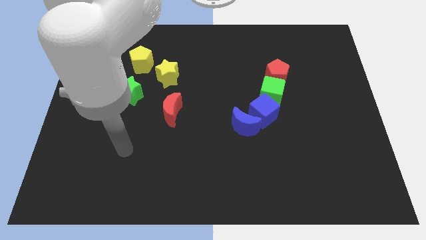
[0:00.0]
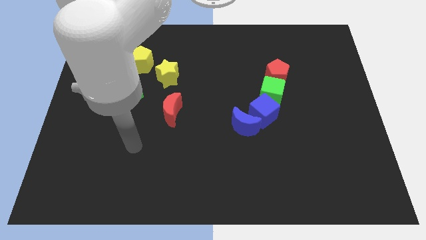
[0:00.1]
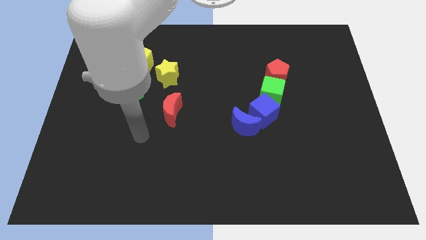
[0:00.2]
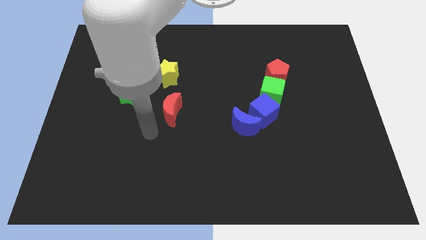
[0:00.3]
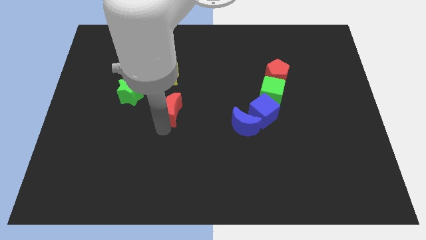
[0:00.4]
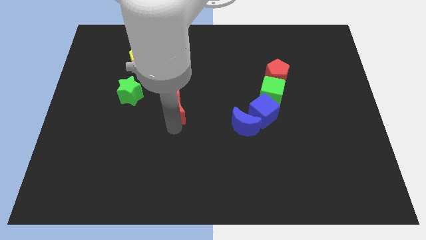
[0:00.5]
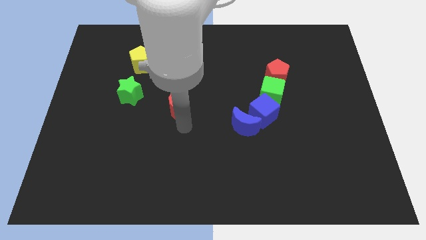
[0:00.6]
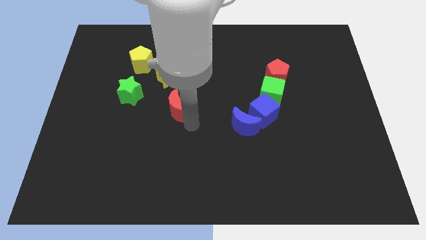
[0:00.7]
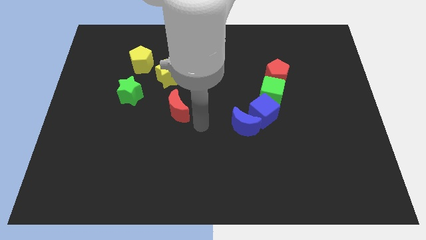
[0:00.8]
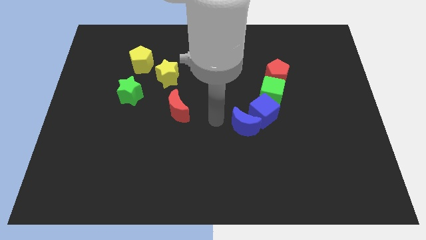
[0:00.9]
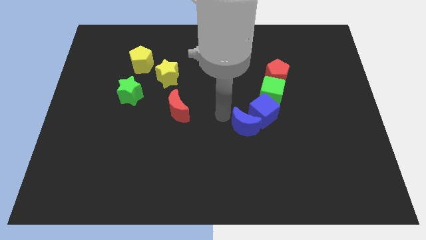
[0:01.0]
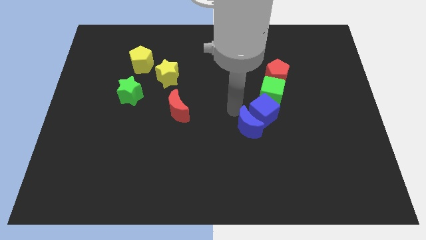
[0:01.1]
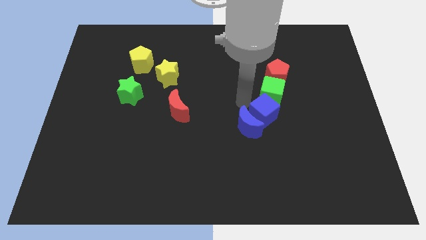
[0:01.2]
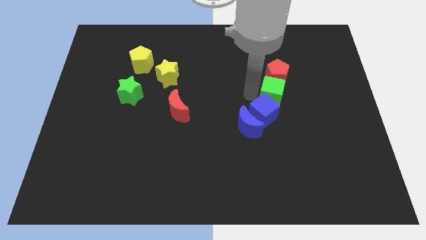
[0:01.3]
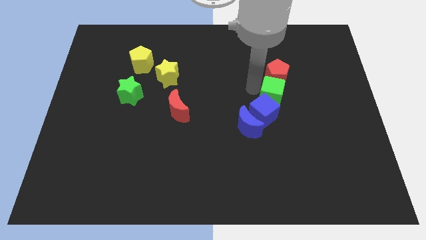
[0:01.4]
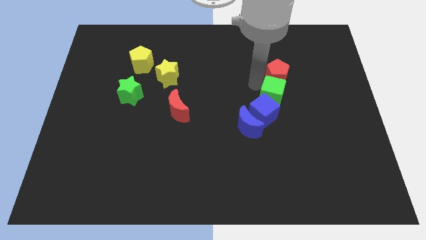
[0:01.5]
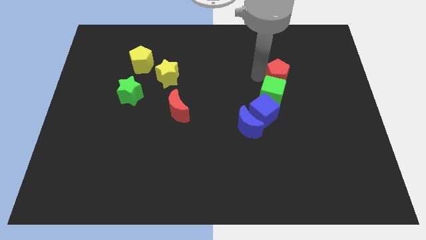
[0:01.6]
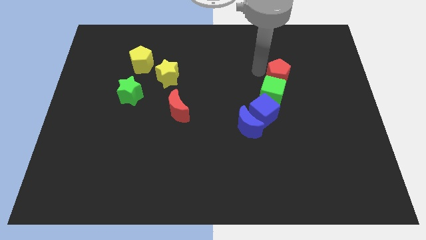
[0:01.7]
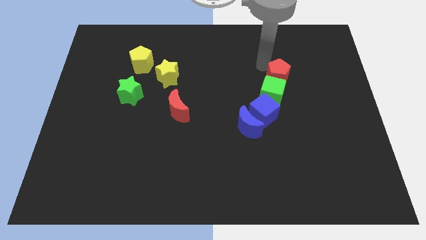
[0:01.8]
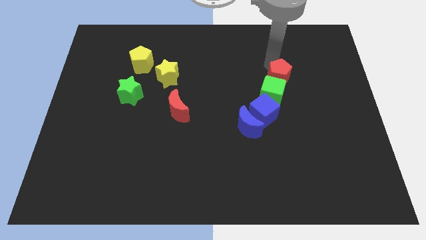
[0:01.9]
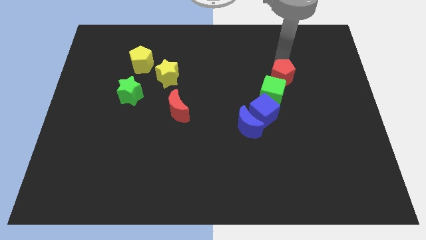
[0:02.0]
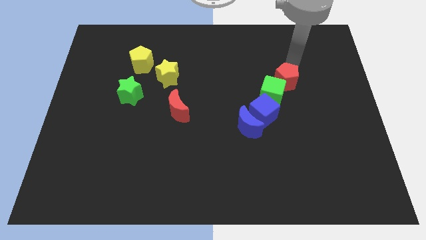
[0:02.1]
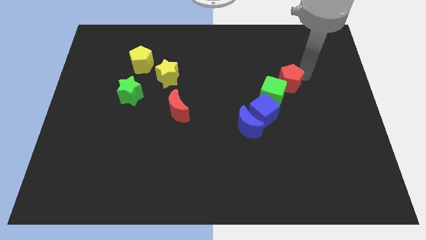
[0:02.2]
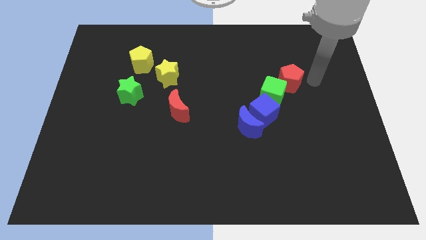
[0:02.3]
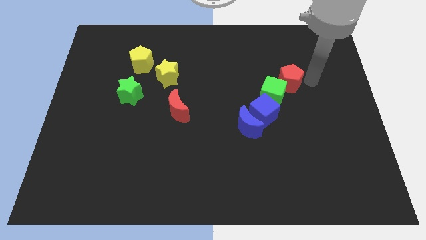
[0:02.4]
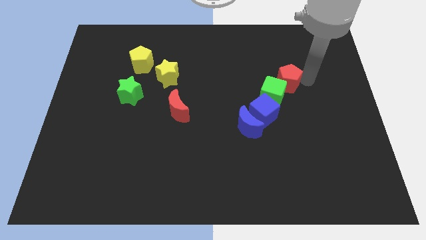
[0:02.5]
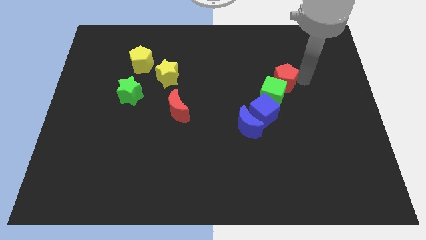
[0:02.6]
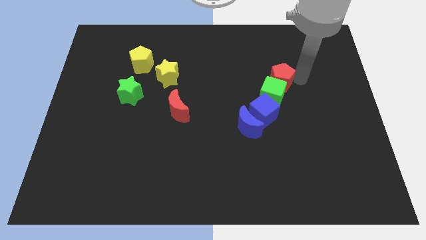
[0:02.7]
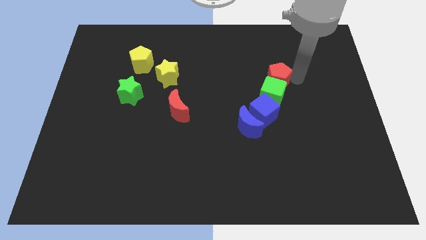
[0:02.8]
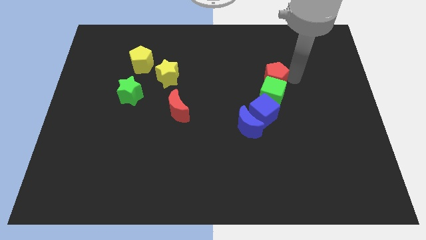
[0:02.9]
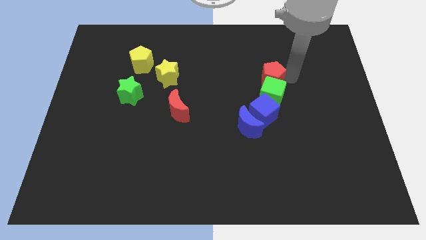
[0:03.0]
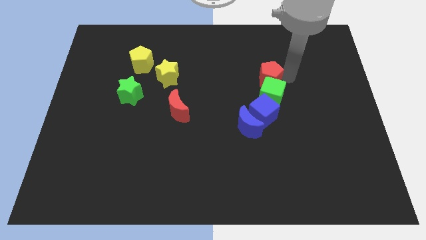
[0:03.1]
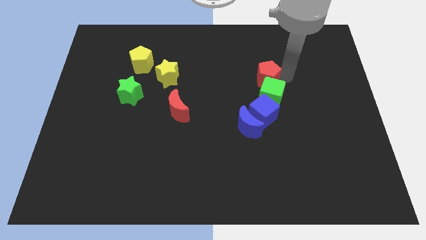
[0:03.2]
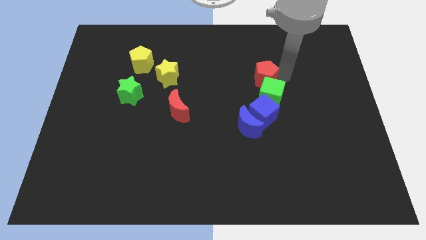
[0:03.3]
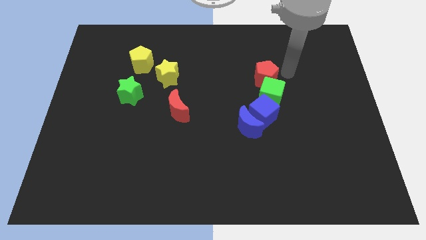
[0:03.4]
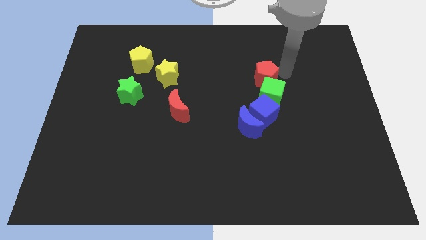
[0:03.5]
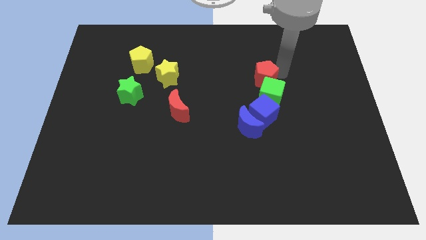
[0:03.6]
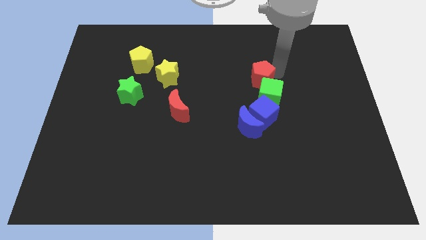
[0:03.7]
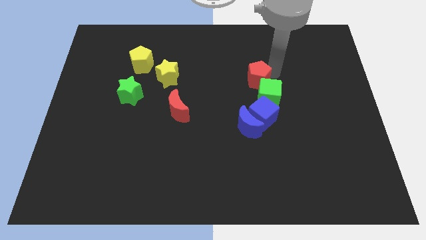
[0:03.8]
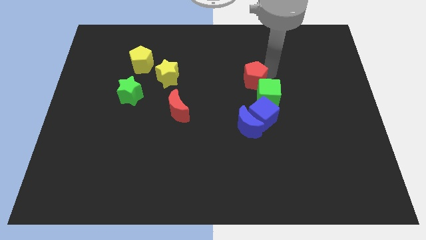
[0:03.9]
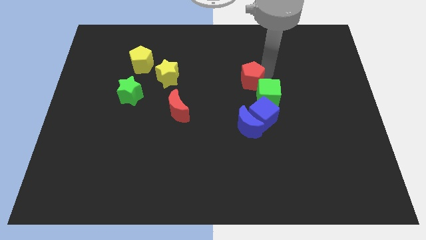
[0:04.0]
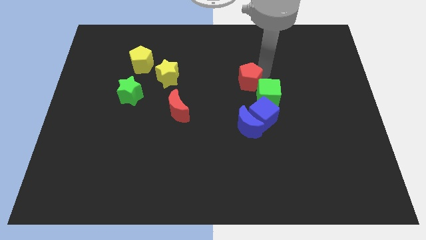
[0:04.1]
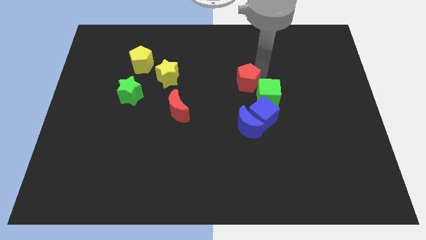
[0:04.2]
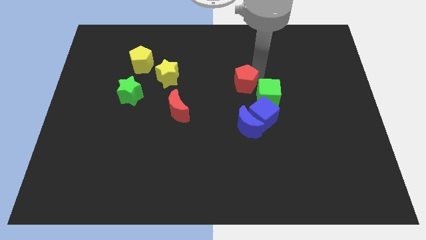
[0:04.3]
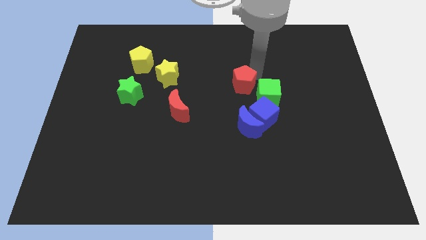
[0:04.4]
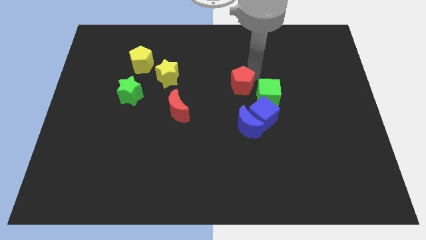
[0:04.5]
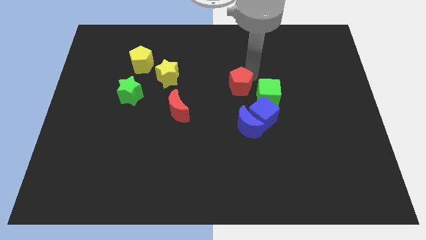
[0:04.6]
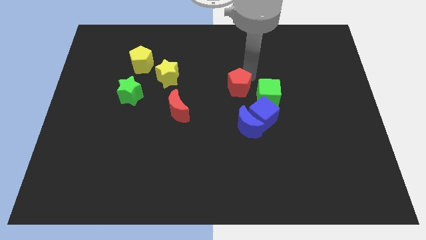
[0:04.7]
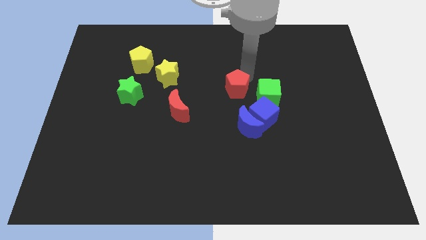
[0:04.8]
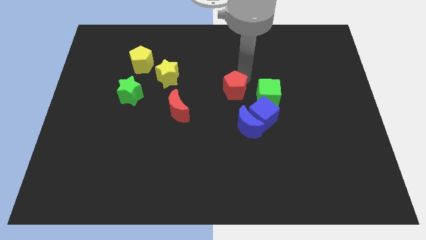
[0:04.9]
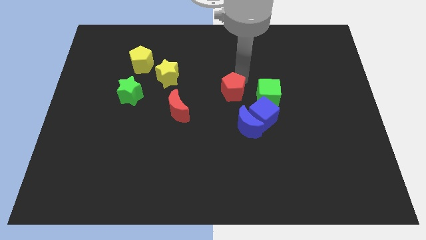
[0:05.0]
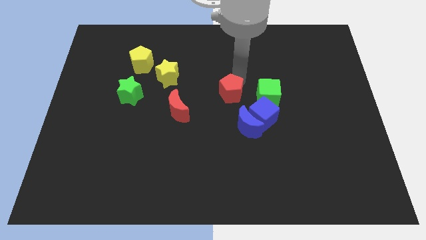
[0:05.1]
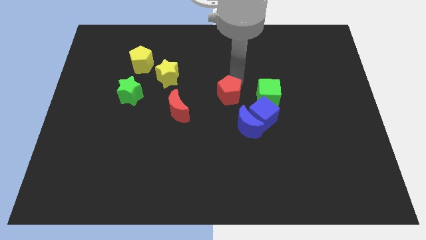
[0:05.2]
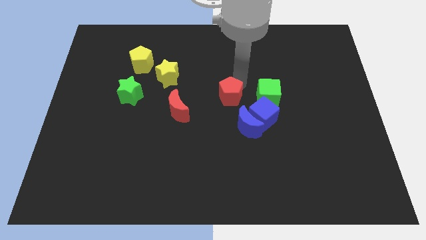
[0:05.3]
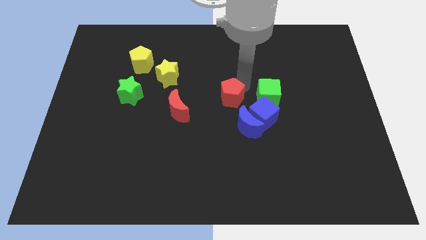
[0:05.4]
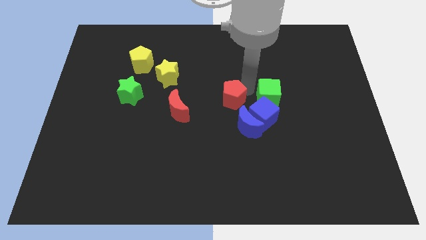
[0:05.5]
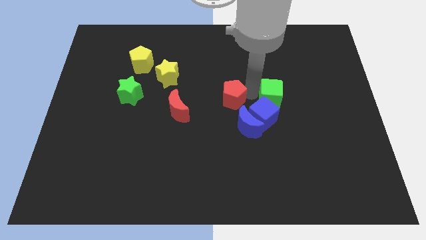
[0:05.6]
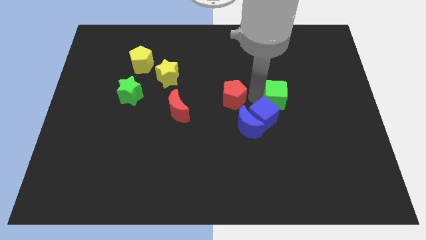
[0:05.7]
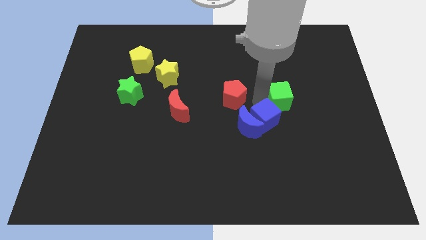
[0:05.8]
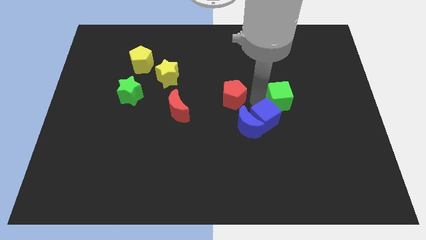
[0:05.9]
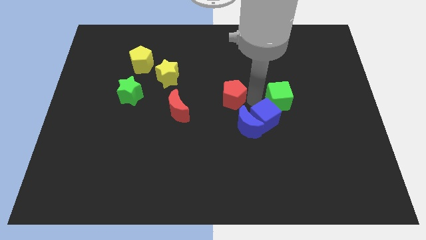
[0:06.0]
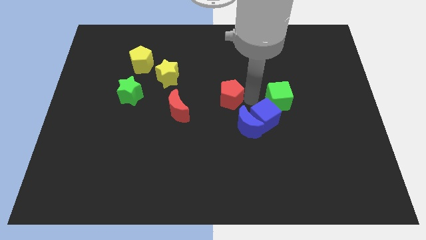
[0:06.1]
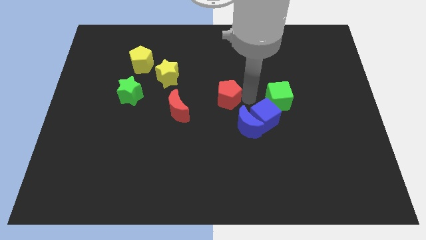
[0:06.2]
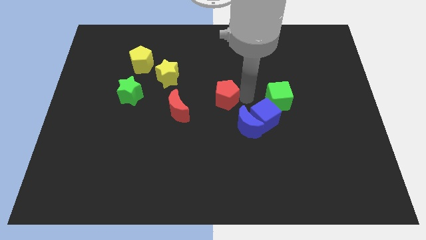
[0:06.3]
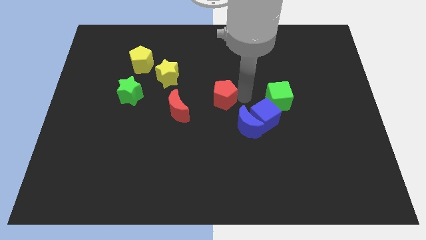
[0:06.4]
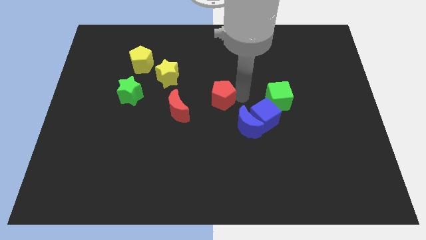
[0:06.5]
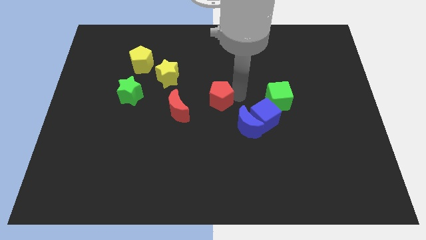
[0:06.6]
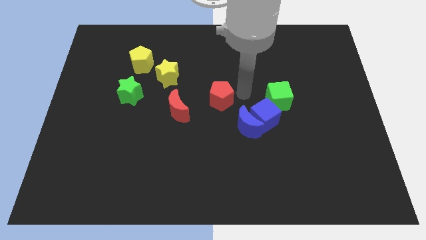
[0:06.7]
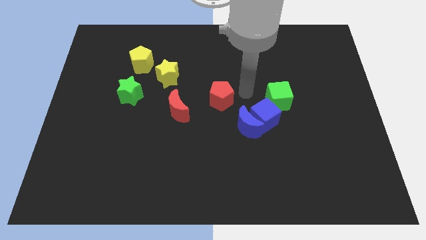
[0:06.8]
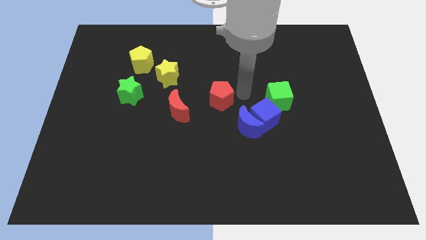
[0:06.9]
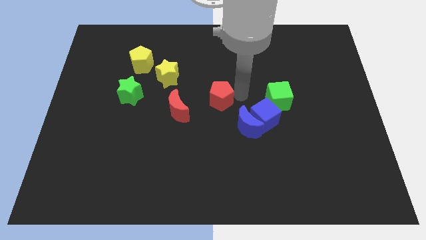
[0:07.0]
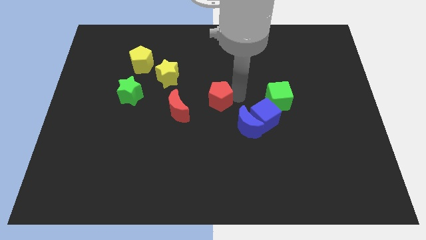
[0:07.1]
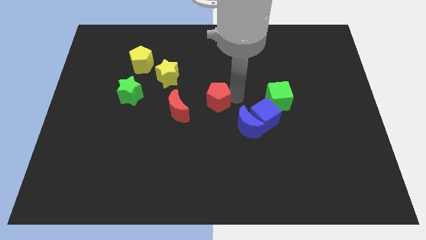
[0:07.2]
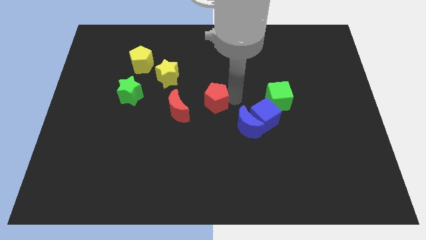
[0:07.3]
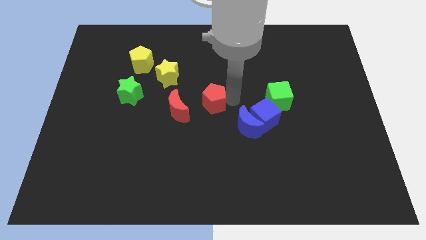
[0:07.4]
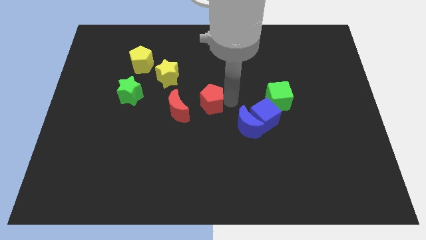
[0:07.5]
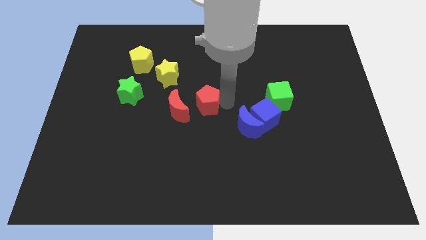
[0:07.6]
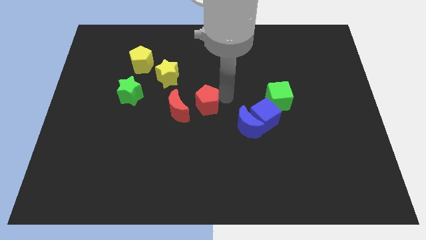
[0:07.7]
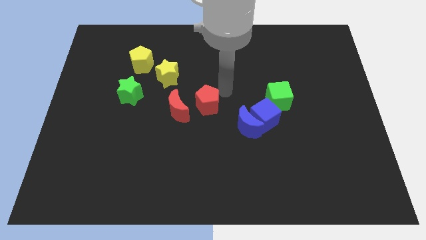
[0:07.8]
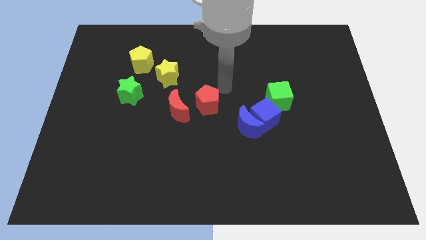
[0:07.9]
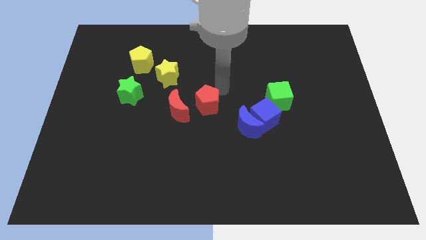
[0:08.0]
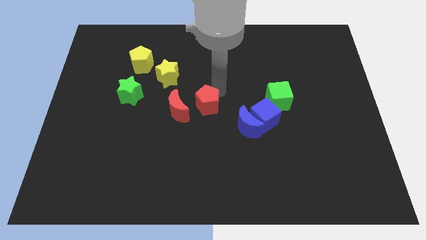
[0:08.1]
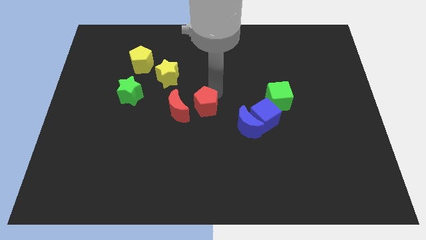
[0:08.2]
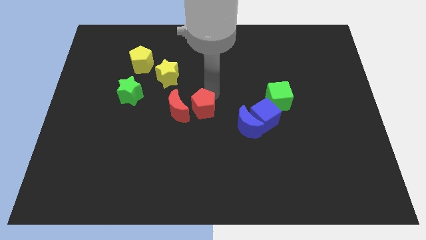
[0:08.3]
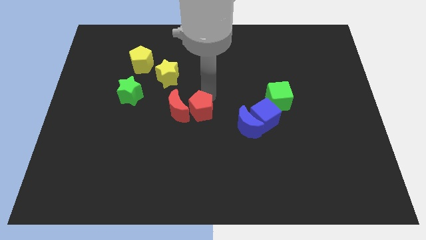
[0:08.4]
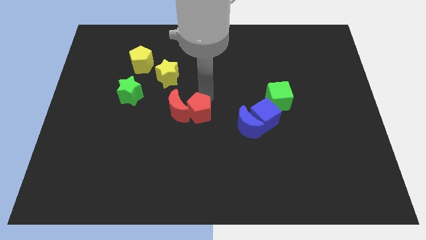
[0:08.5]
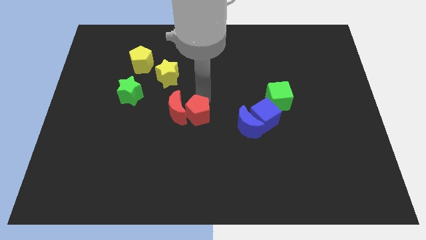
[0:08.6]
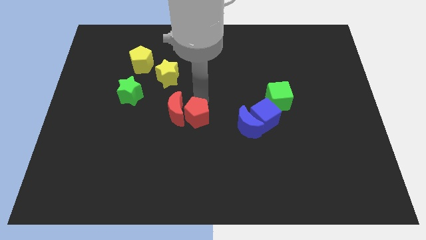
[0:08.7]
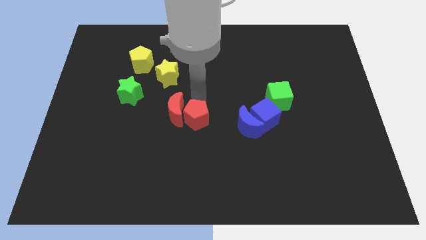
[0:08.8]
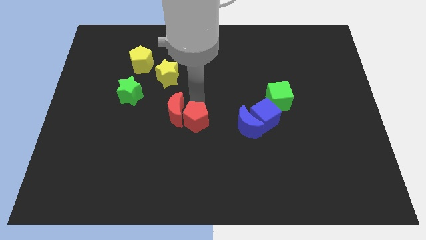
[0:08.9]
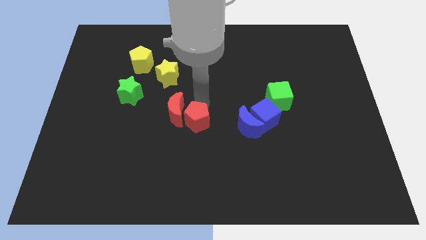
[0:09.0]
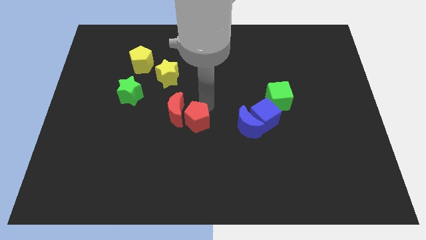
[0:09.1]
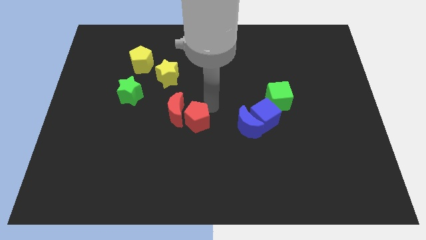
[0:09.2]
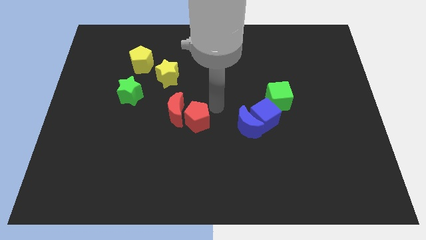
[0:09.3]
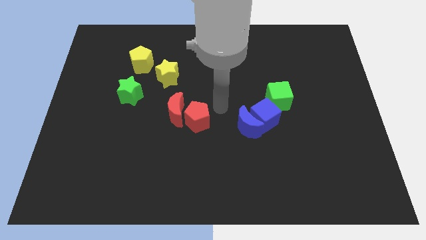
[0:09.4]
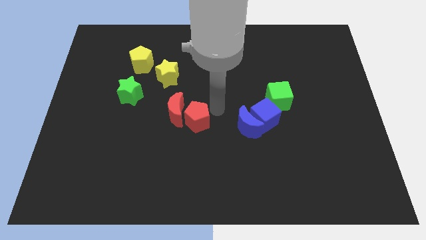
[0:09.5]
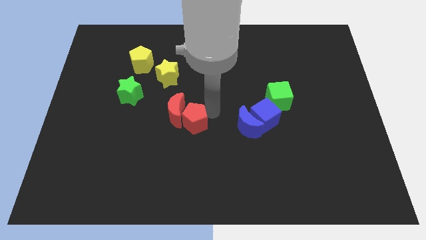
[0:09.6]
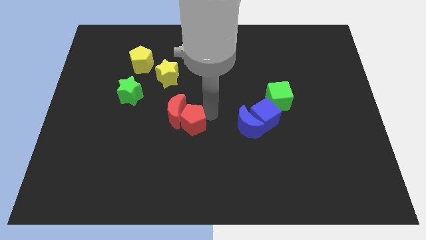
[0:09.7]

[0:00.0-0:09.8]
slide the red pentagon below the red moon
